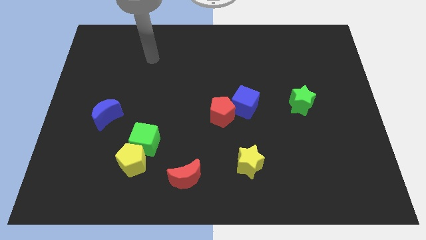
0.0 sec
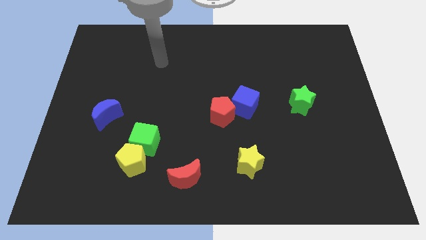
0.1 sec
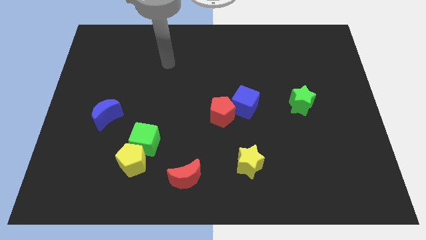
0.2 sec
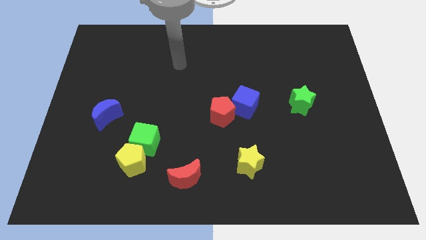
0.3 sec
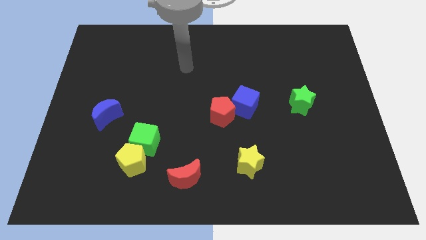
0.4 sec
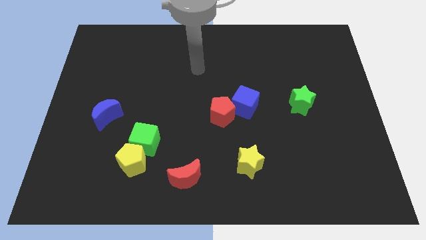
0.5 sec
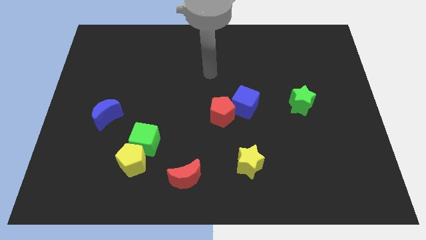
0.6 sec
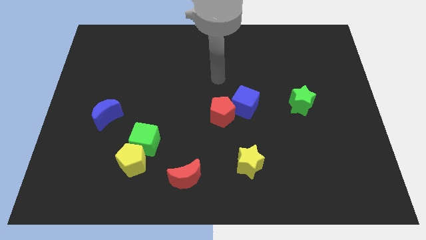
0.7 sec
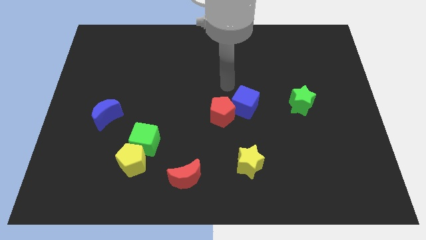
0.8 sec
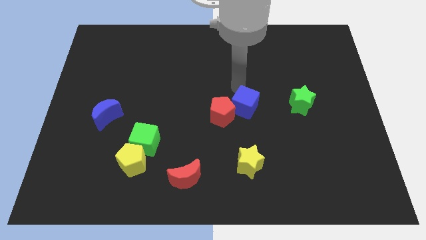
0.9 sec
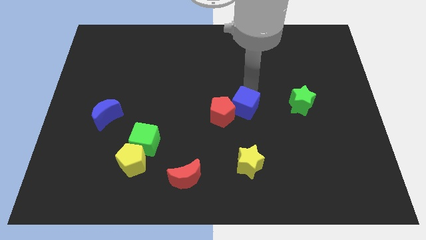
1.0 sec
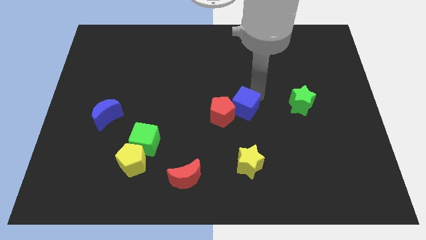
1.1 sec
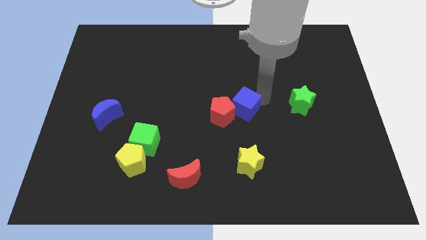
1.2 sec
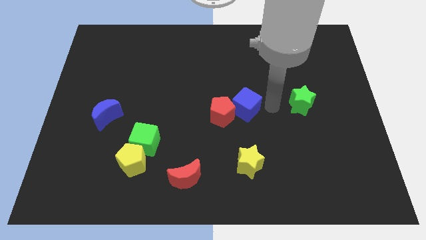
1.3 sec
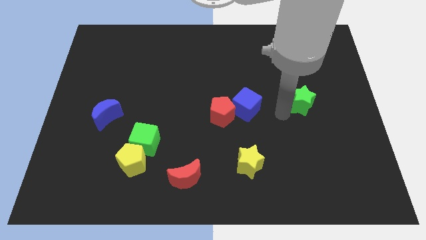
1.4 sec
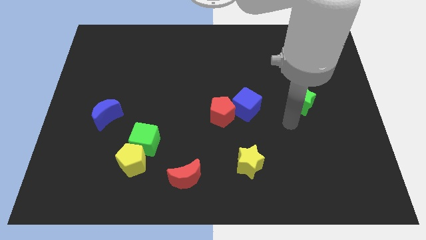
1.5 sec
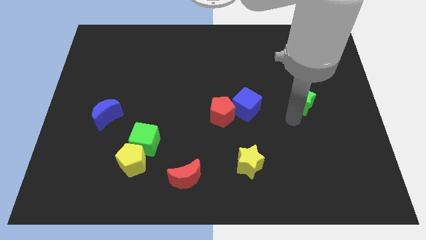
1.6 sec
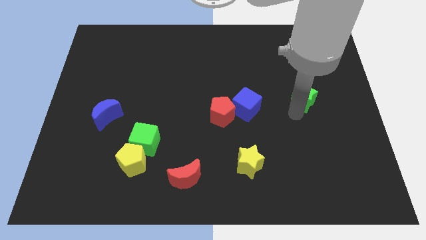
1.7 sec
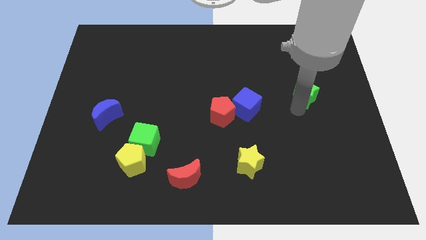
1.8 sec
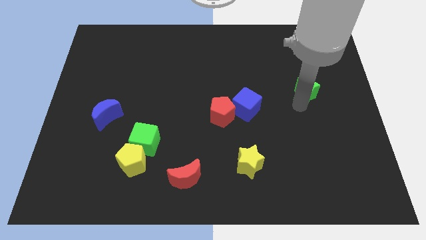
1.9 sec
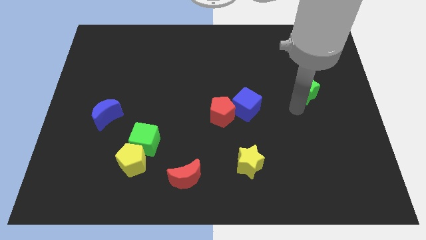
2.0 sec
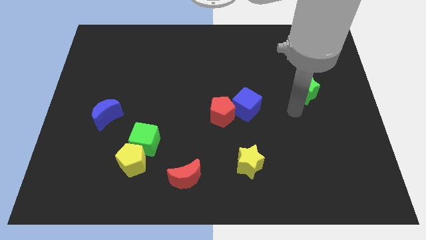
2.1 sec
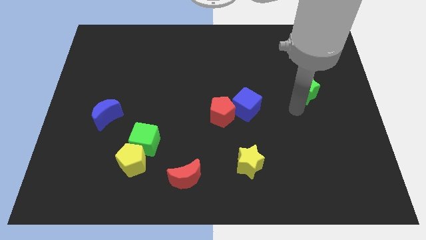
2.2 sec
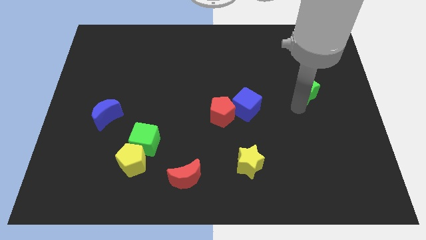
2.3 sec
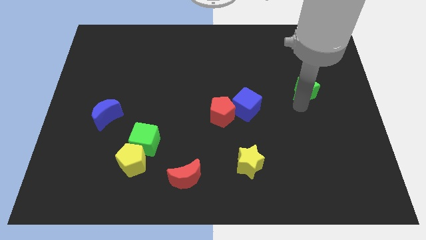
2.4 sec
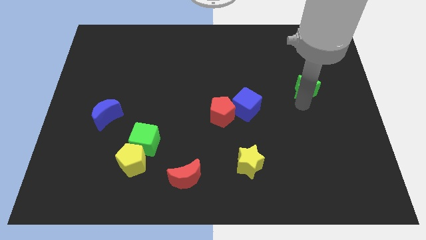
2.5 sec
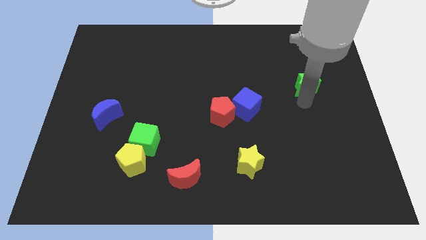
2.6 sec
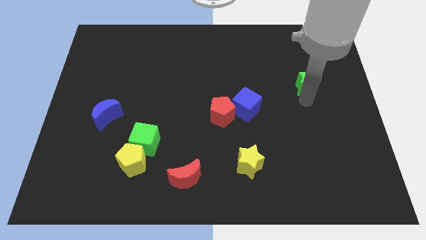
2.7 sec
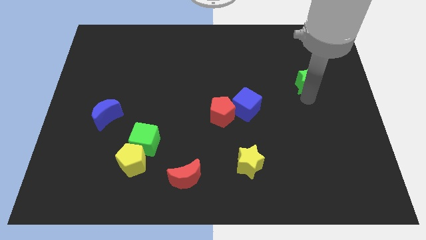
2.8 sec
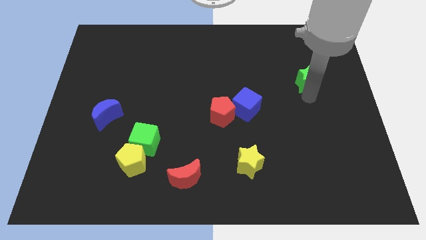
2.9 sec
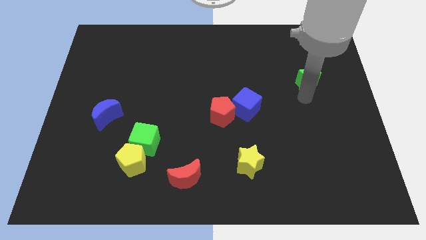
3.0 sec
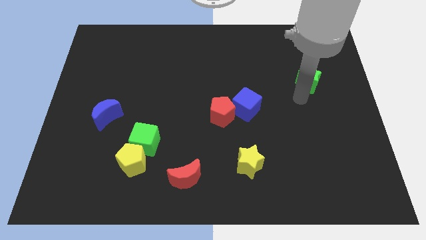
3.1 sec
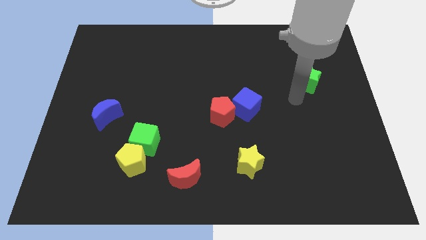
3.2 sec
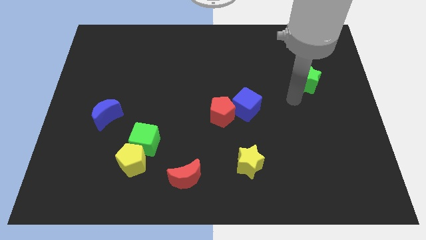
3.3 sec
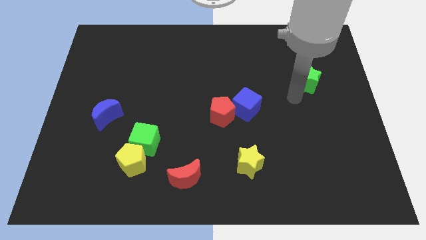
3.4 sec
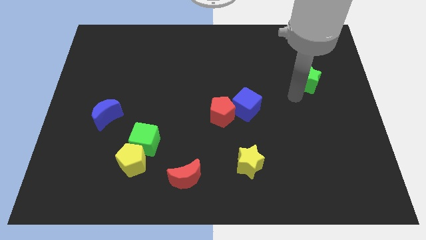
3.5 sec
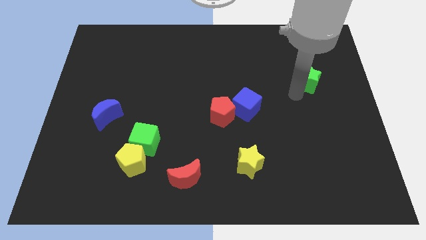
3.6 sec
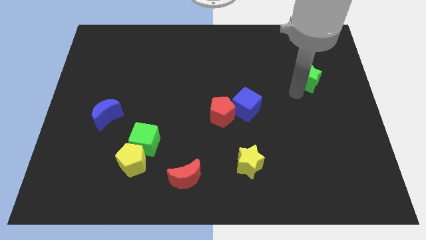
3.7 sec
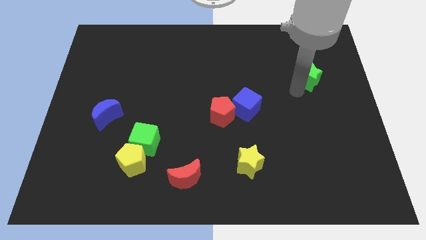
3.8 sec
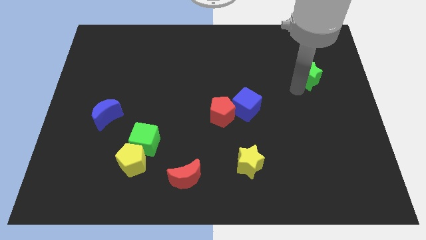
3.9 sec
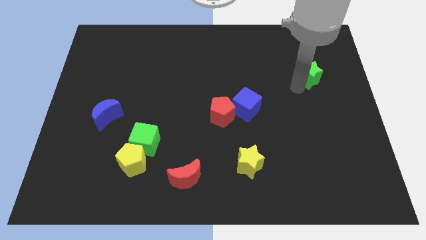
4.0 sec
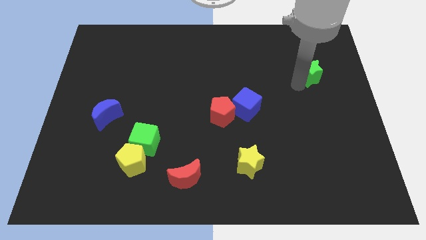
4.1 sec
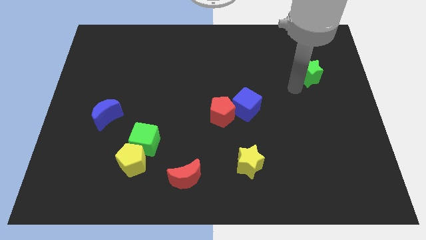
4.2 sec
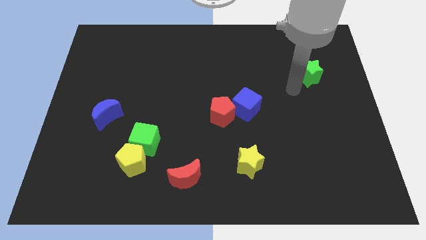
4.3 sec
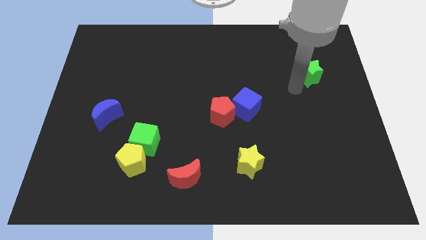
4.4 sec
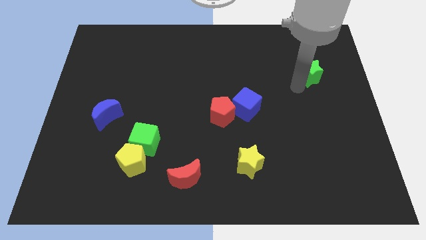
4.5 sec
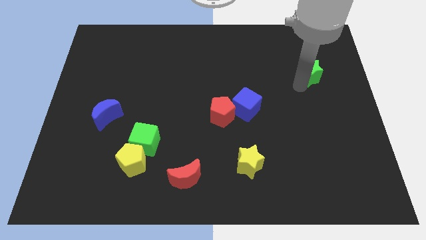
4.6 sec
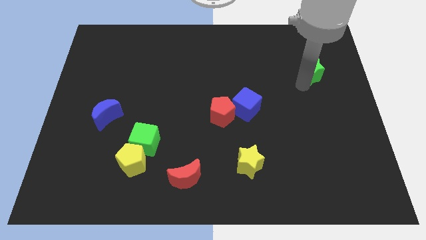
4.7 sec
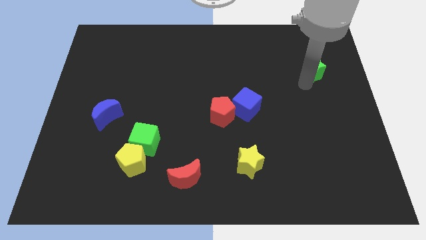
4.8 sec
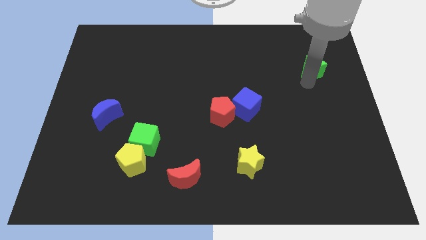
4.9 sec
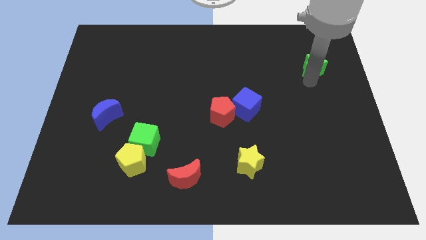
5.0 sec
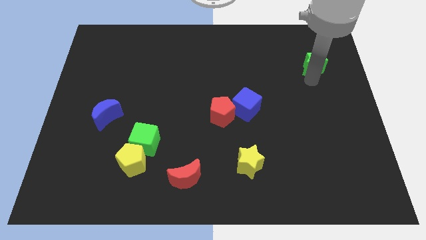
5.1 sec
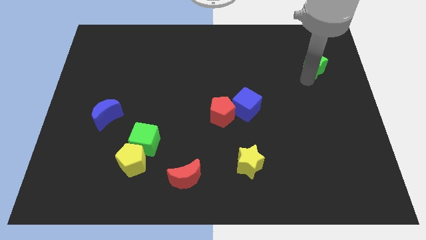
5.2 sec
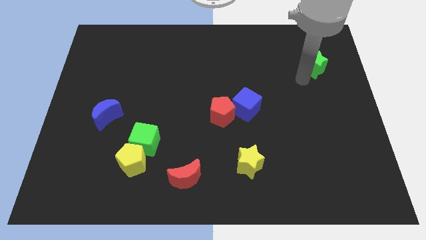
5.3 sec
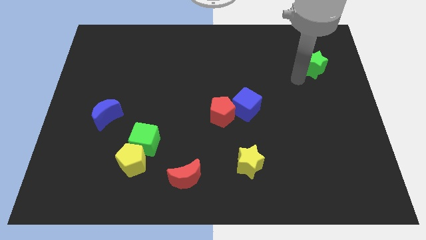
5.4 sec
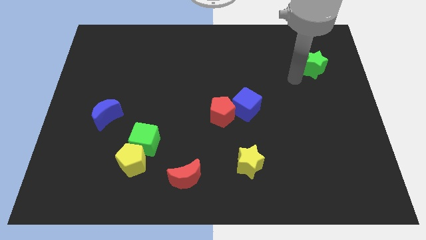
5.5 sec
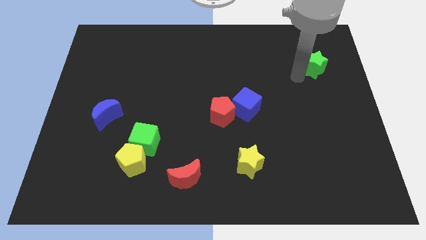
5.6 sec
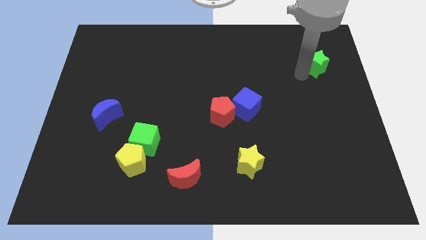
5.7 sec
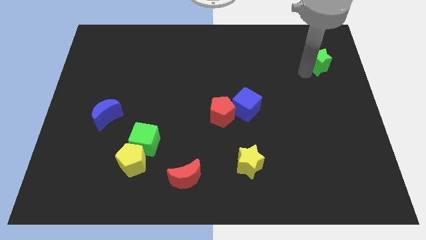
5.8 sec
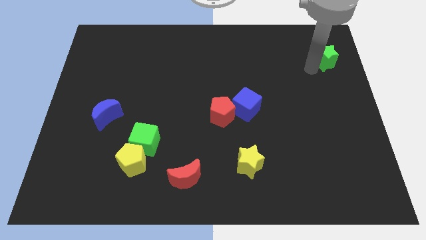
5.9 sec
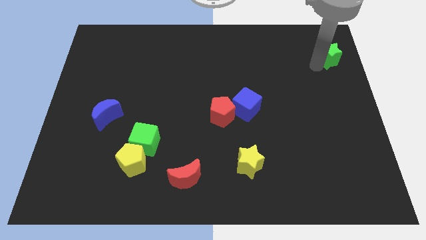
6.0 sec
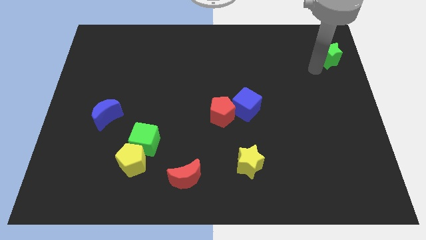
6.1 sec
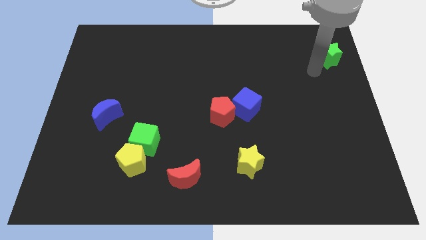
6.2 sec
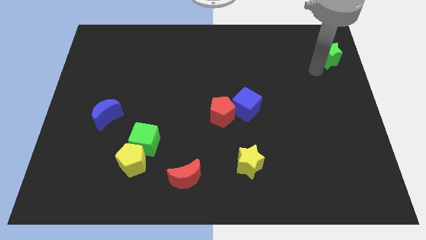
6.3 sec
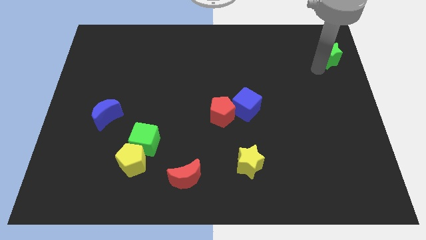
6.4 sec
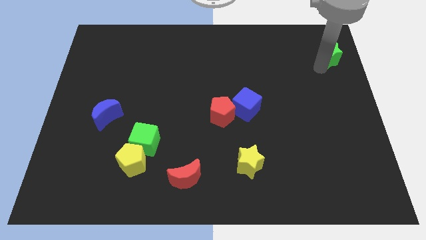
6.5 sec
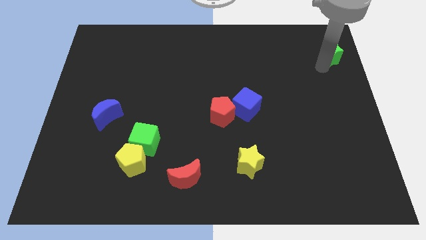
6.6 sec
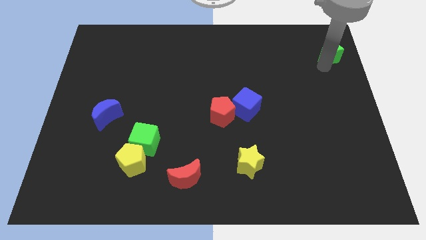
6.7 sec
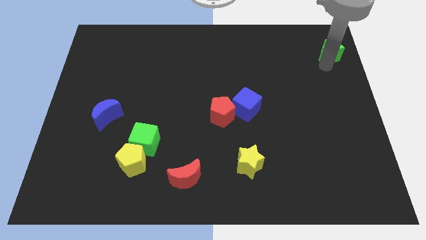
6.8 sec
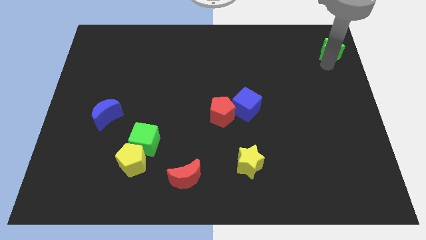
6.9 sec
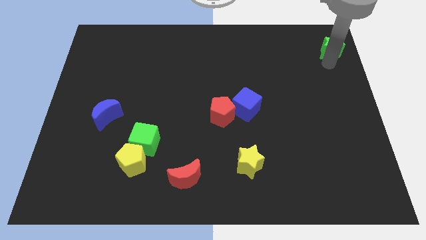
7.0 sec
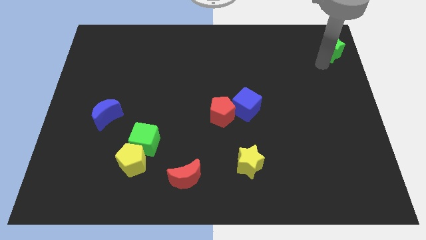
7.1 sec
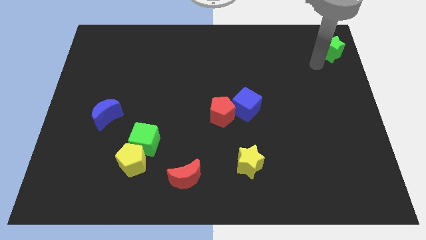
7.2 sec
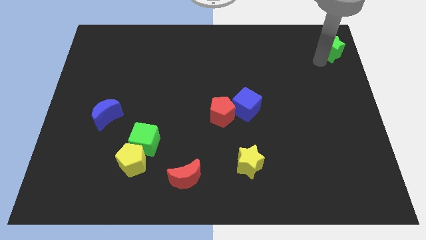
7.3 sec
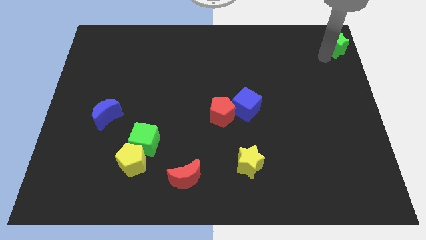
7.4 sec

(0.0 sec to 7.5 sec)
push the green star to the top right of the board
